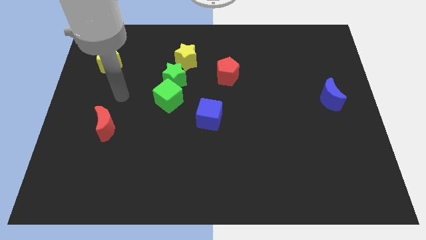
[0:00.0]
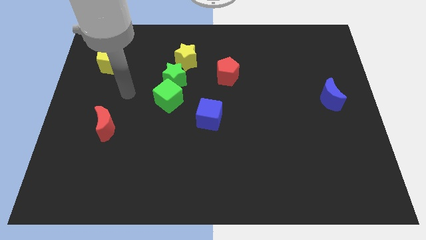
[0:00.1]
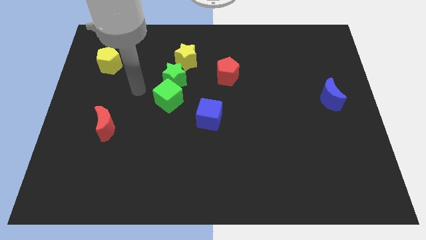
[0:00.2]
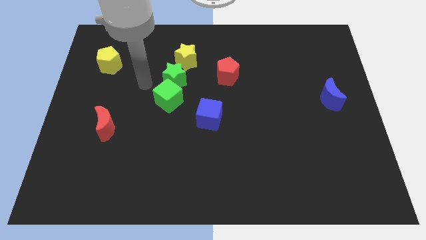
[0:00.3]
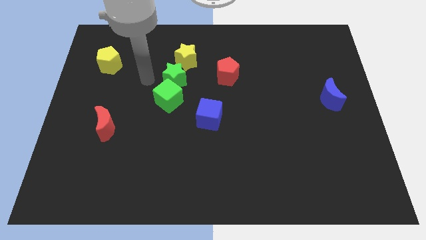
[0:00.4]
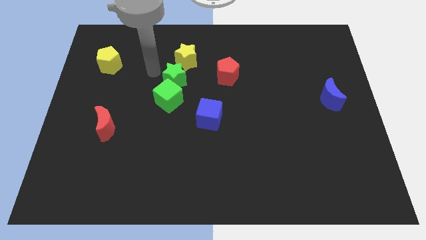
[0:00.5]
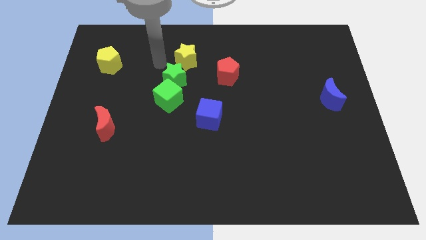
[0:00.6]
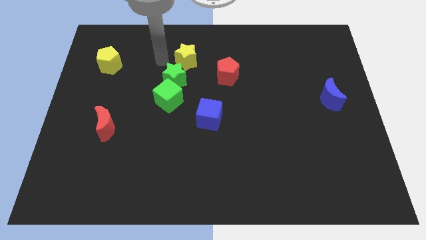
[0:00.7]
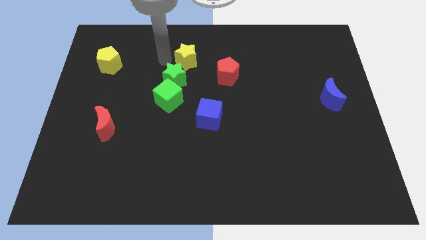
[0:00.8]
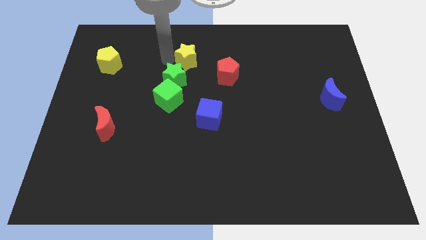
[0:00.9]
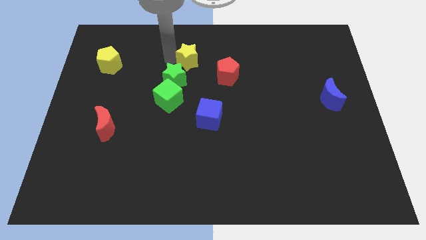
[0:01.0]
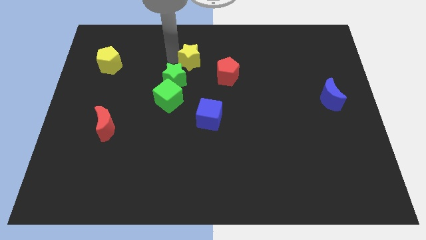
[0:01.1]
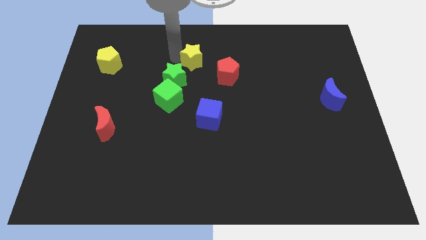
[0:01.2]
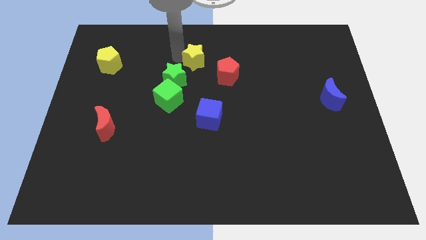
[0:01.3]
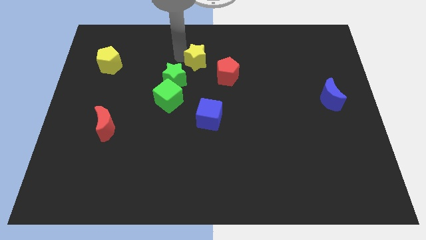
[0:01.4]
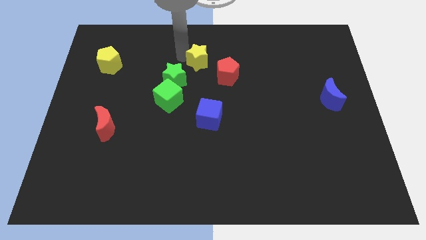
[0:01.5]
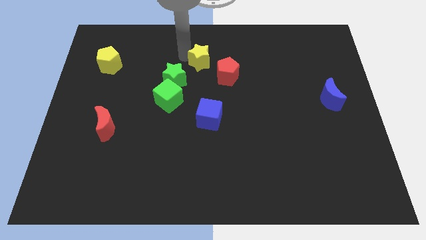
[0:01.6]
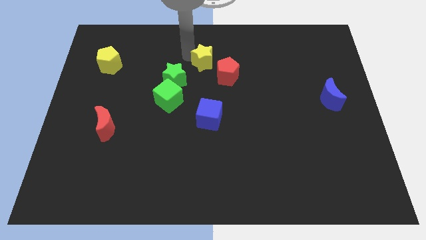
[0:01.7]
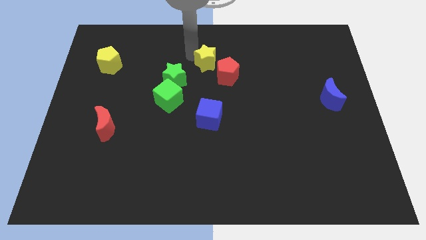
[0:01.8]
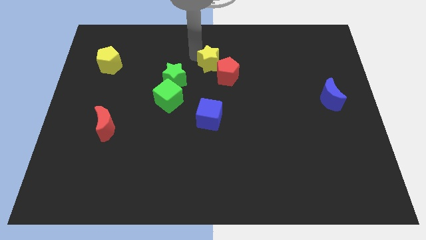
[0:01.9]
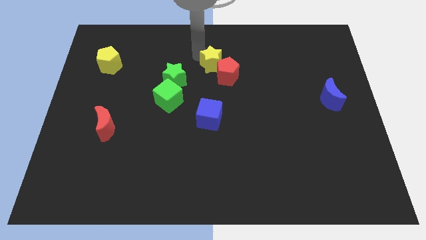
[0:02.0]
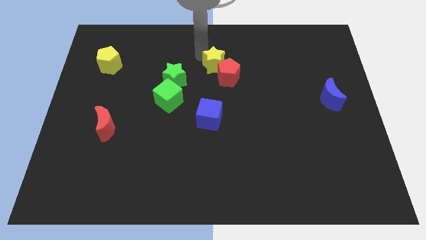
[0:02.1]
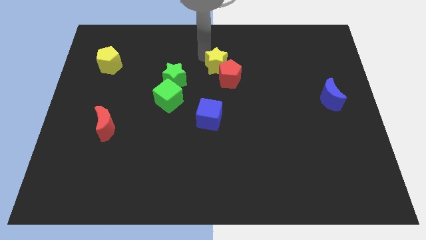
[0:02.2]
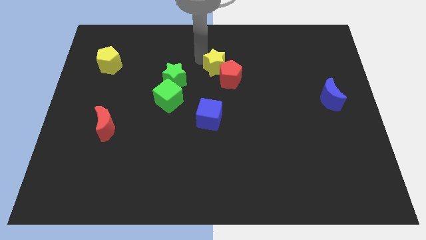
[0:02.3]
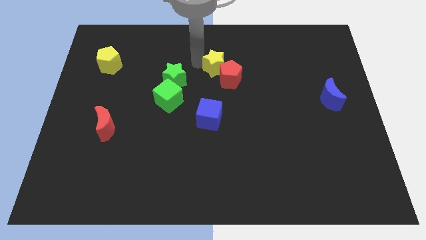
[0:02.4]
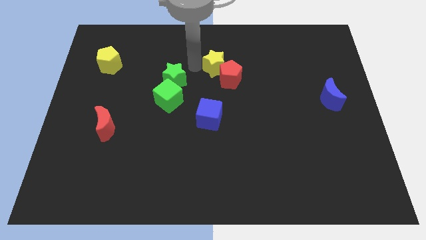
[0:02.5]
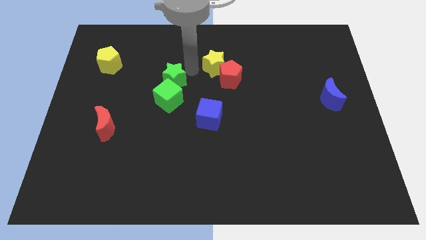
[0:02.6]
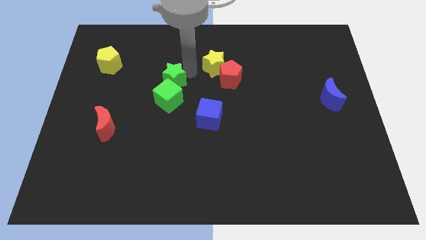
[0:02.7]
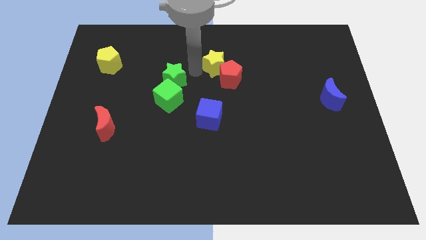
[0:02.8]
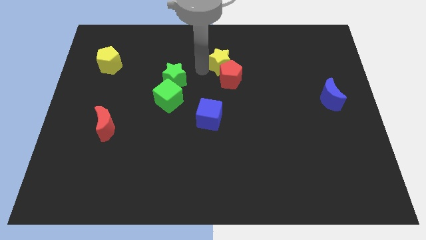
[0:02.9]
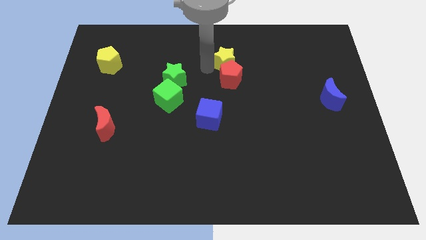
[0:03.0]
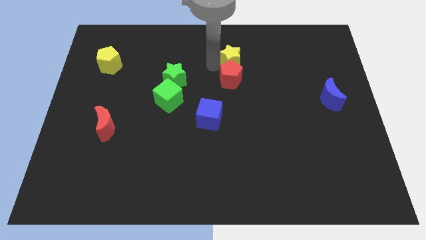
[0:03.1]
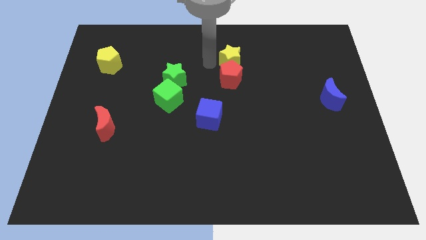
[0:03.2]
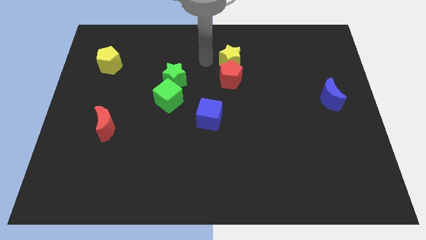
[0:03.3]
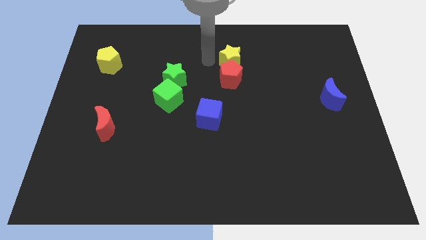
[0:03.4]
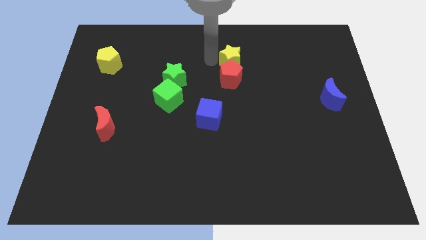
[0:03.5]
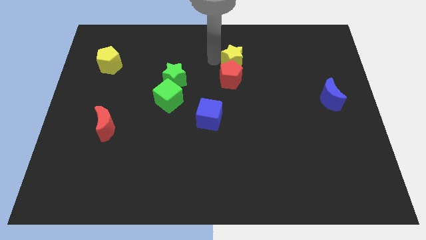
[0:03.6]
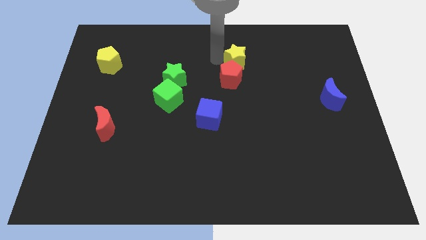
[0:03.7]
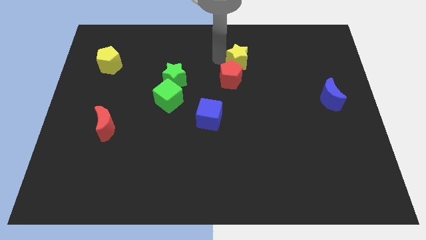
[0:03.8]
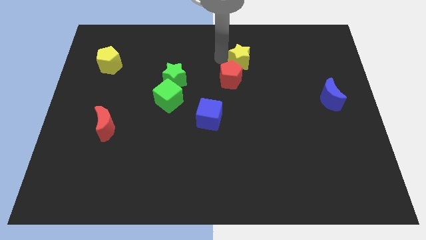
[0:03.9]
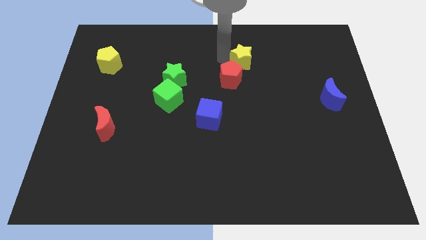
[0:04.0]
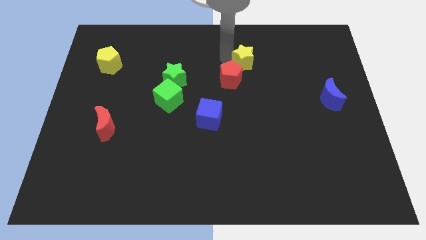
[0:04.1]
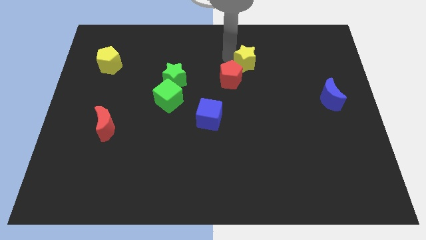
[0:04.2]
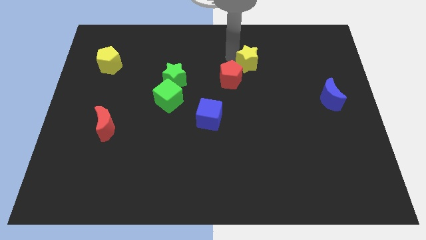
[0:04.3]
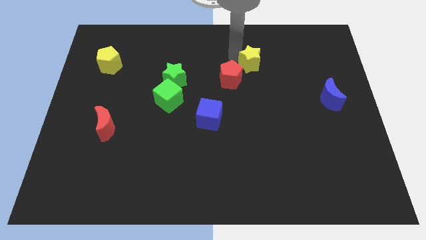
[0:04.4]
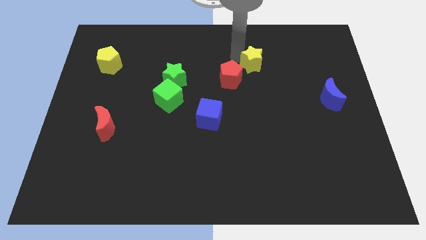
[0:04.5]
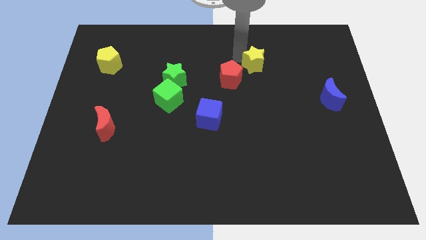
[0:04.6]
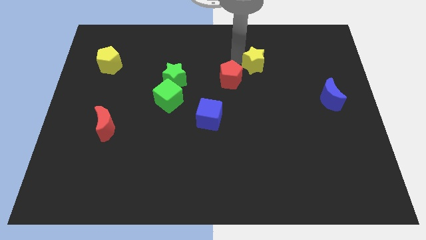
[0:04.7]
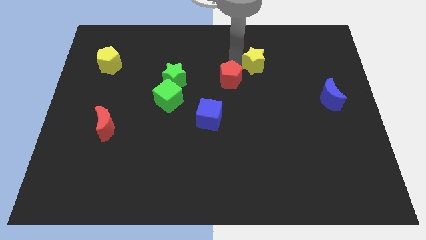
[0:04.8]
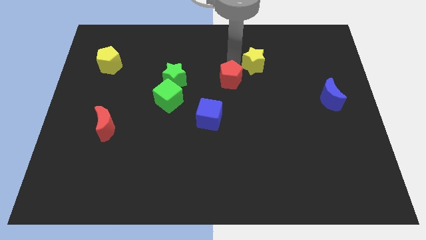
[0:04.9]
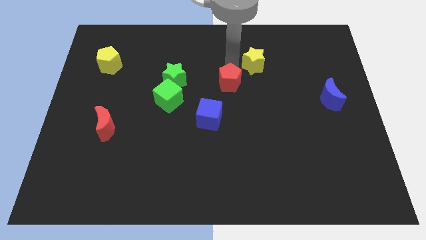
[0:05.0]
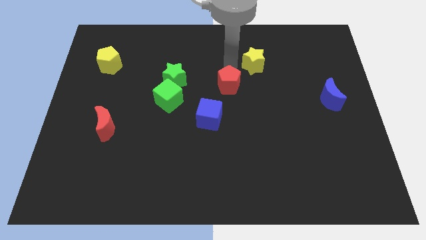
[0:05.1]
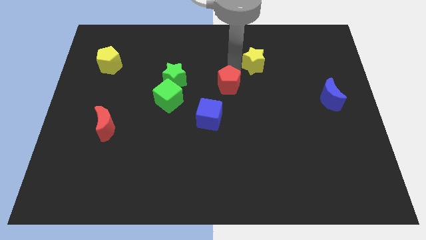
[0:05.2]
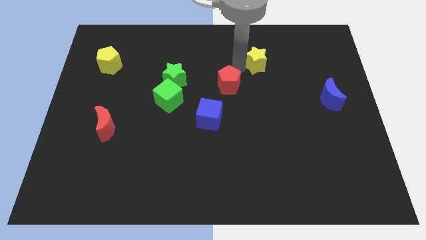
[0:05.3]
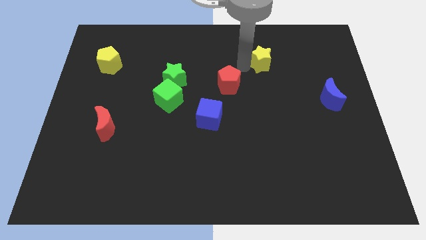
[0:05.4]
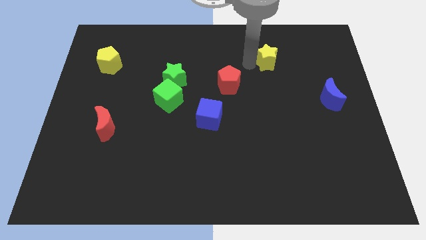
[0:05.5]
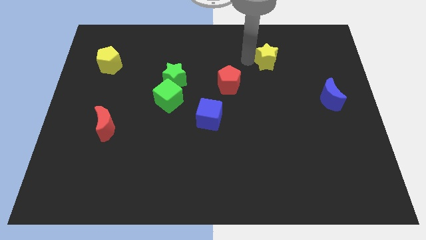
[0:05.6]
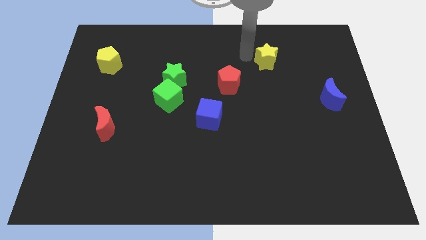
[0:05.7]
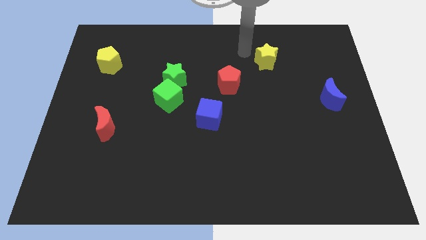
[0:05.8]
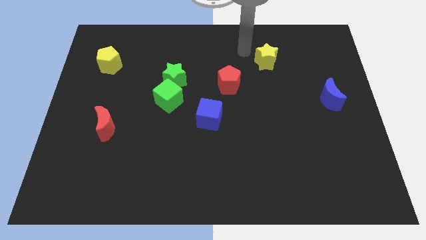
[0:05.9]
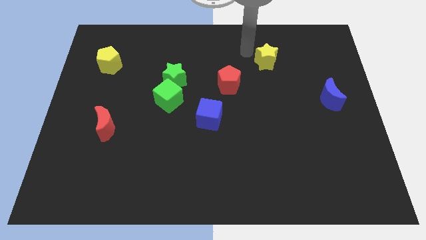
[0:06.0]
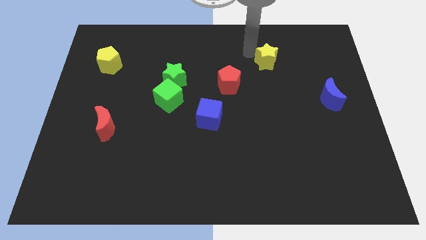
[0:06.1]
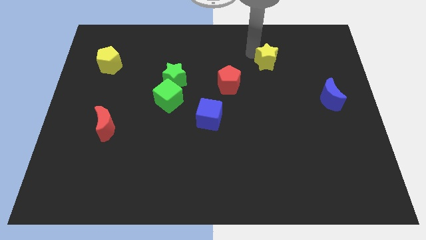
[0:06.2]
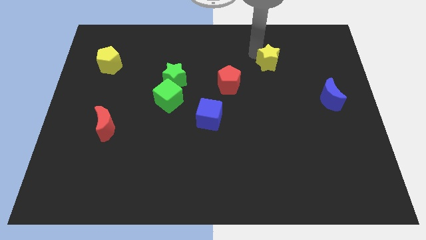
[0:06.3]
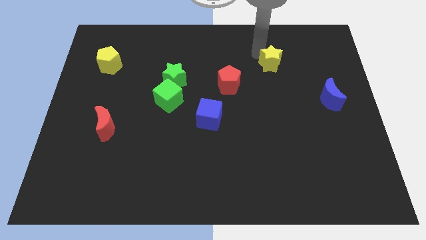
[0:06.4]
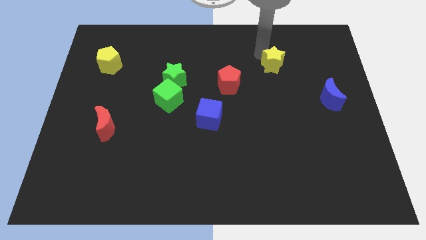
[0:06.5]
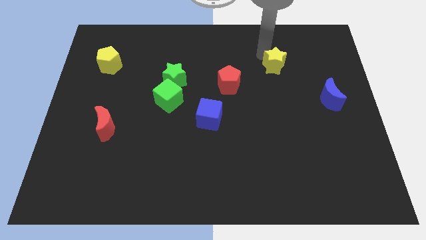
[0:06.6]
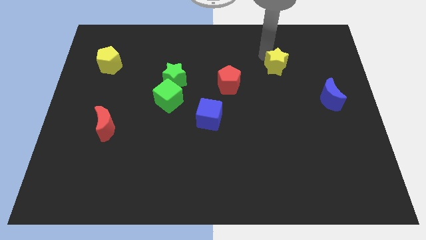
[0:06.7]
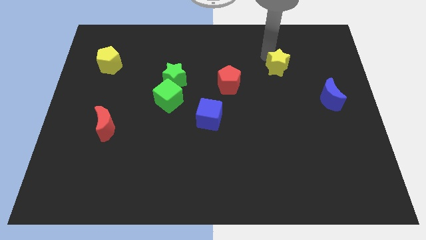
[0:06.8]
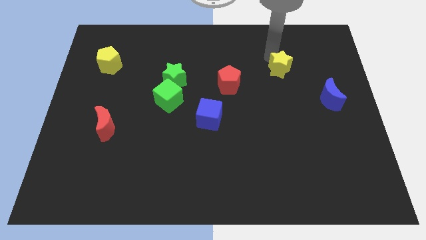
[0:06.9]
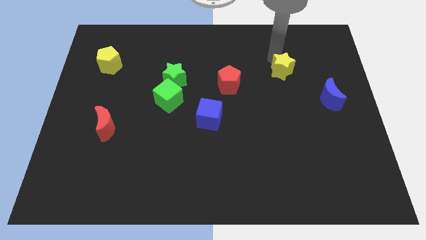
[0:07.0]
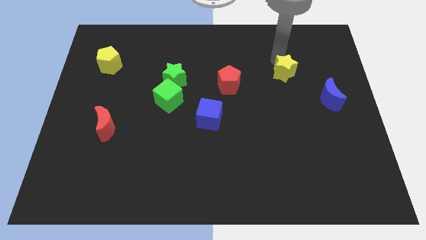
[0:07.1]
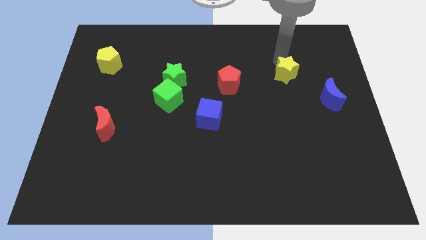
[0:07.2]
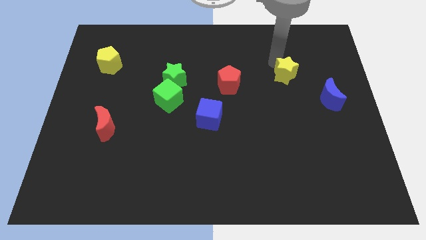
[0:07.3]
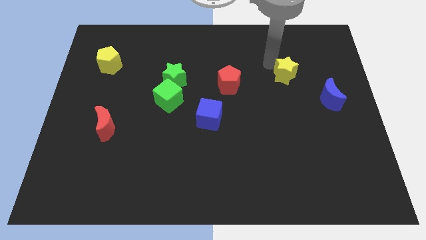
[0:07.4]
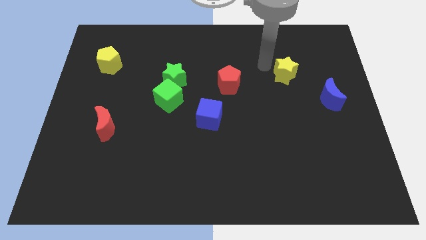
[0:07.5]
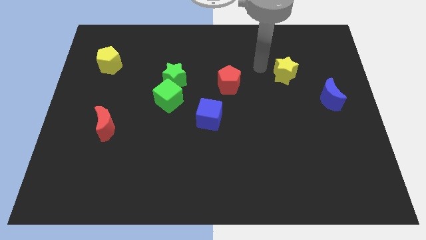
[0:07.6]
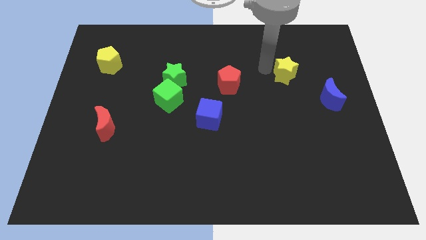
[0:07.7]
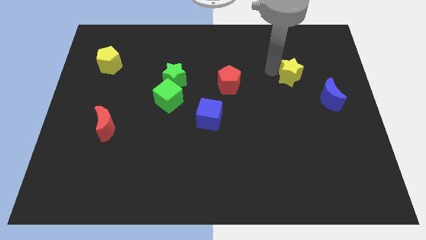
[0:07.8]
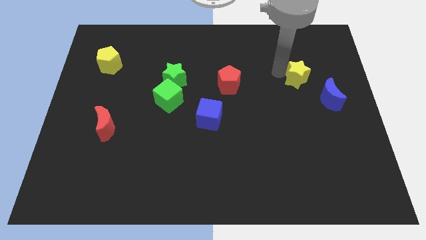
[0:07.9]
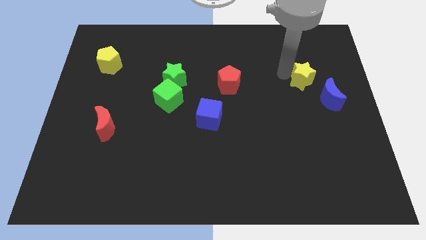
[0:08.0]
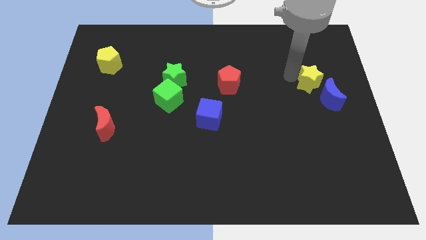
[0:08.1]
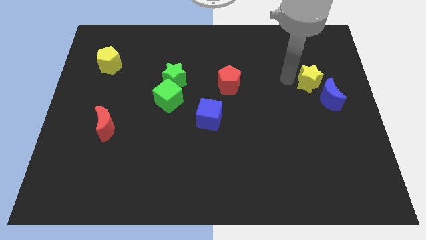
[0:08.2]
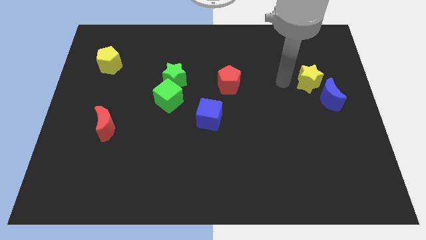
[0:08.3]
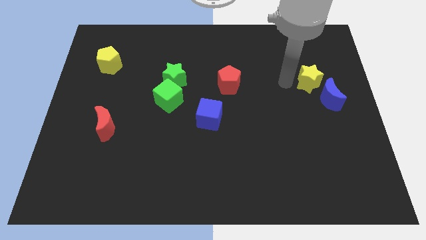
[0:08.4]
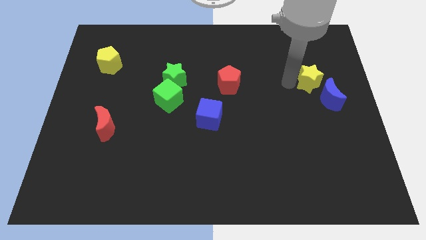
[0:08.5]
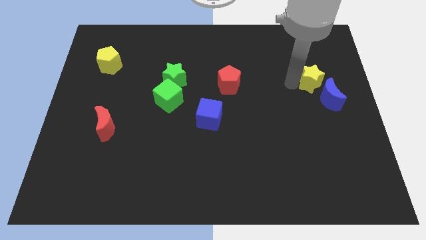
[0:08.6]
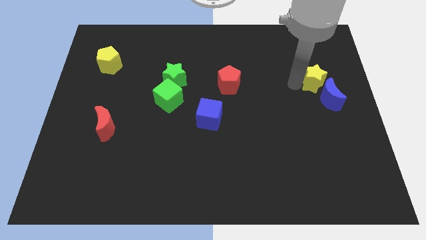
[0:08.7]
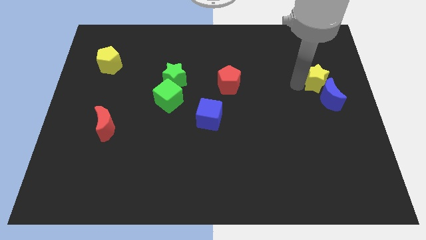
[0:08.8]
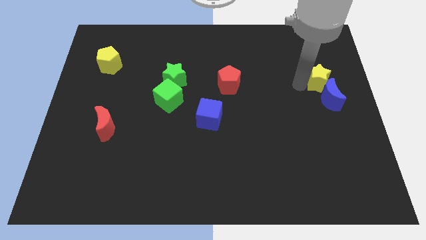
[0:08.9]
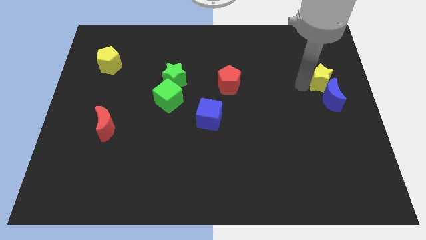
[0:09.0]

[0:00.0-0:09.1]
push the yellow star to the right side of the board
